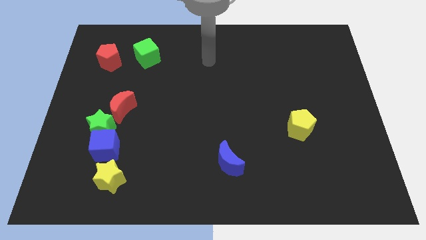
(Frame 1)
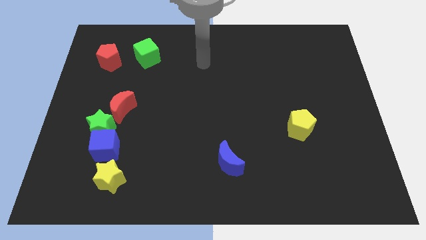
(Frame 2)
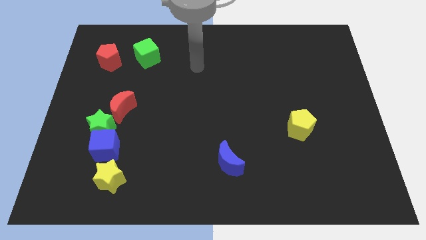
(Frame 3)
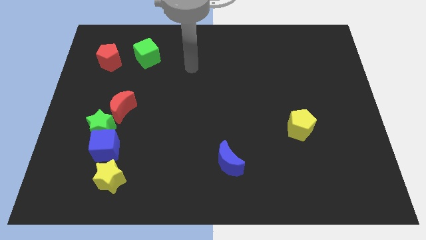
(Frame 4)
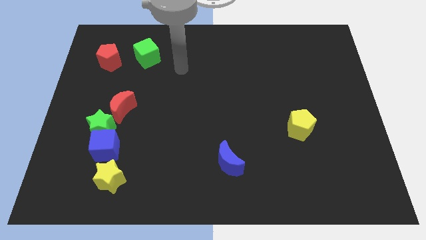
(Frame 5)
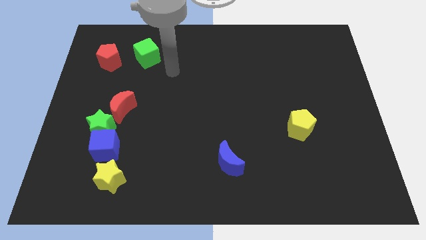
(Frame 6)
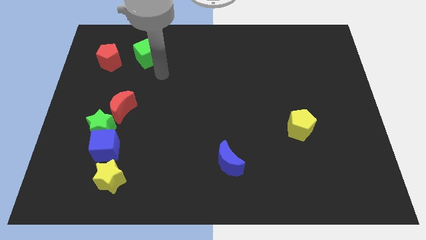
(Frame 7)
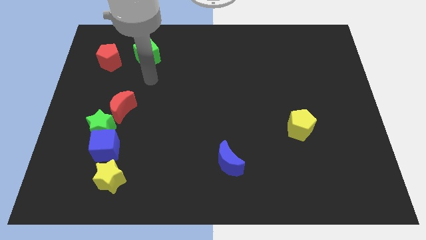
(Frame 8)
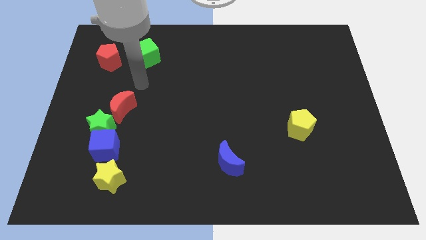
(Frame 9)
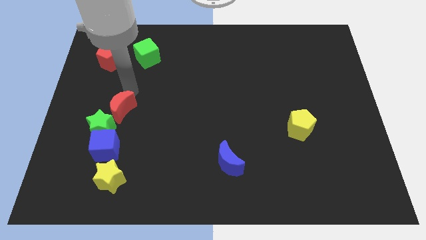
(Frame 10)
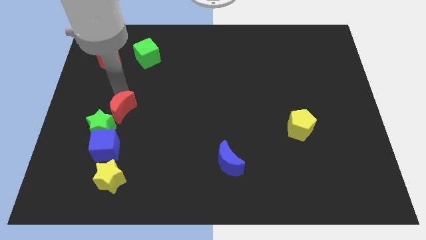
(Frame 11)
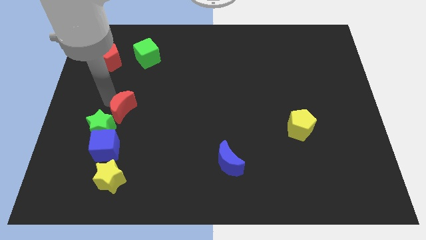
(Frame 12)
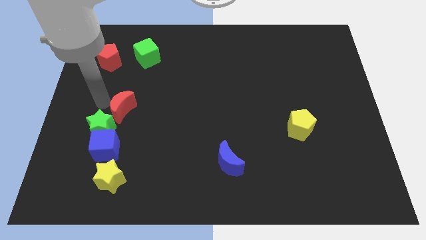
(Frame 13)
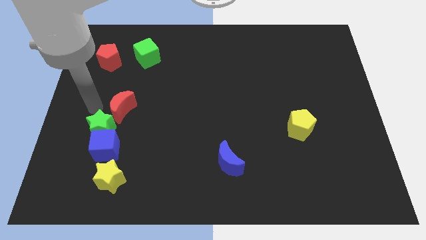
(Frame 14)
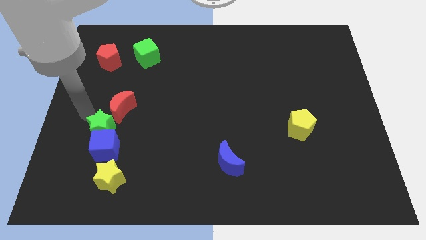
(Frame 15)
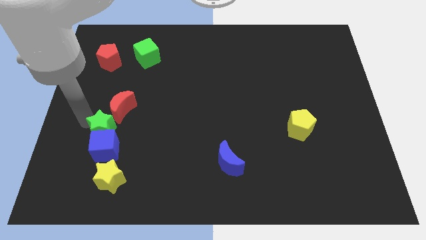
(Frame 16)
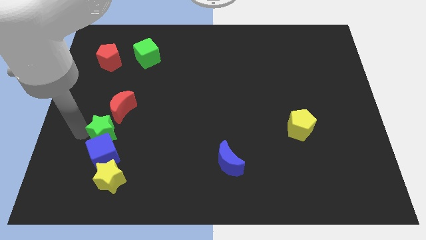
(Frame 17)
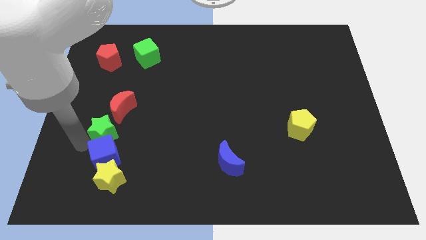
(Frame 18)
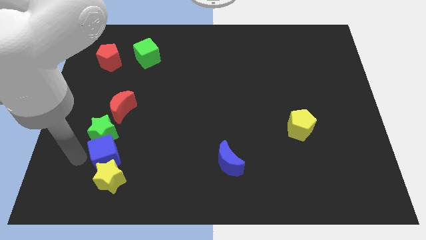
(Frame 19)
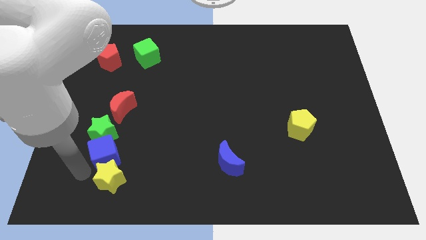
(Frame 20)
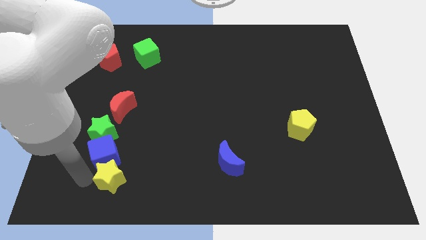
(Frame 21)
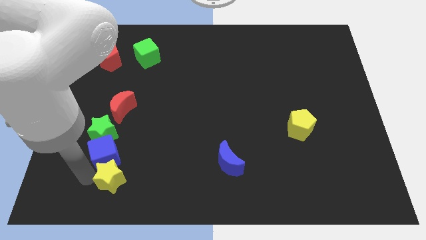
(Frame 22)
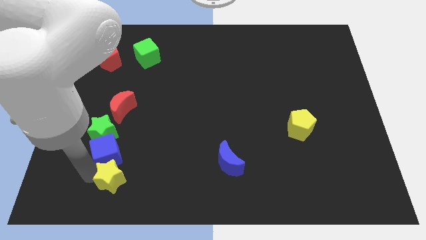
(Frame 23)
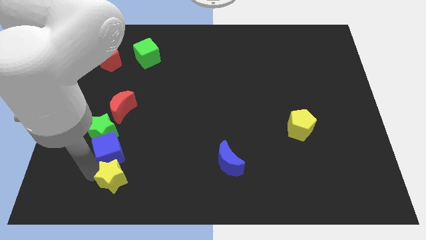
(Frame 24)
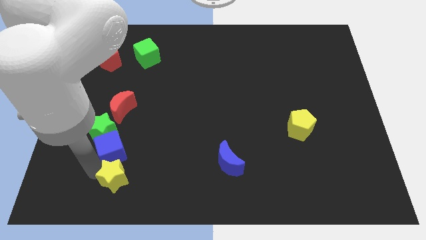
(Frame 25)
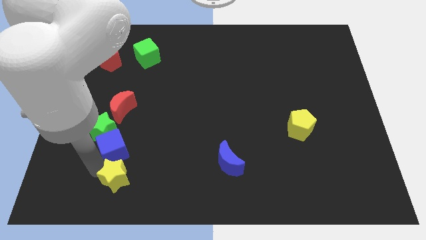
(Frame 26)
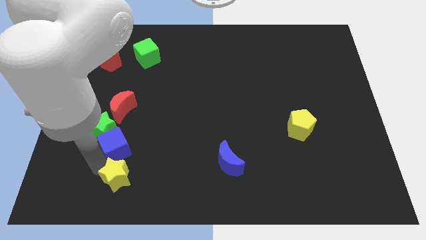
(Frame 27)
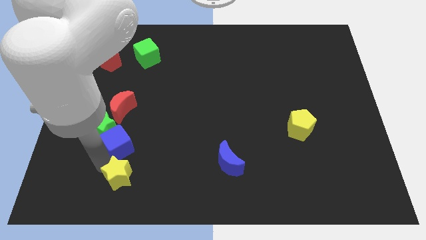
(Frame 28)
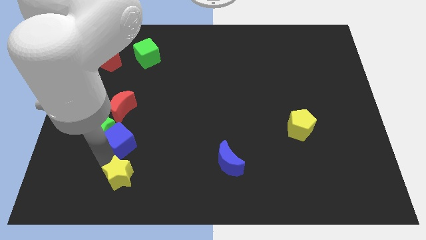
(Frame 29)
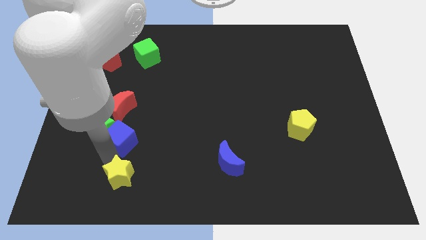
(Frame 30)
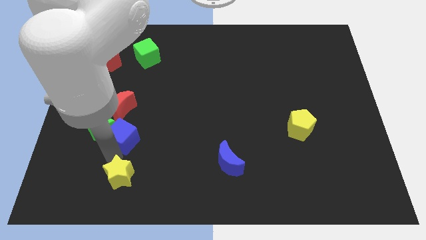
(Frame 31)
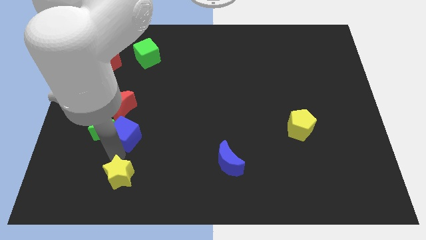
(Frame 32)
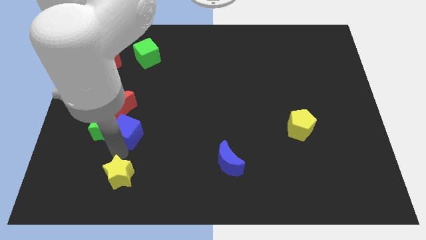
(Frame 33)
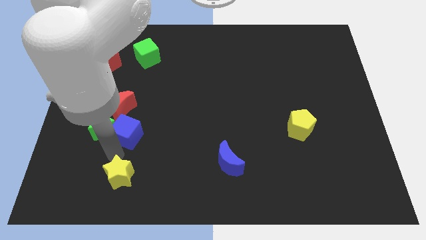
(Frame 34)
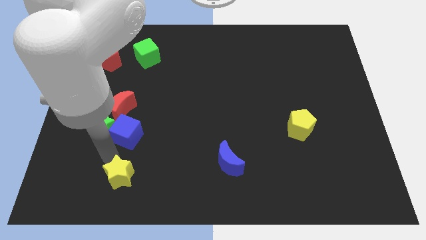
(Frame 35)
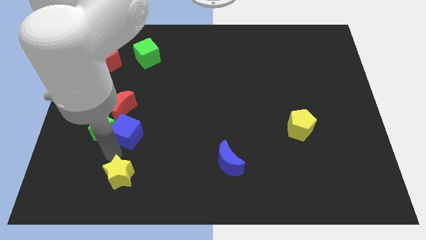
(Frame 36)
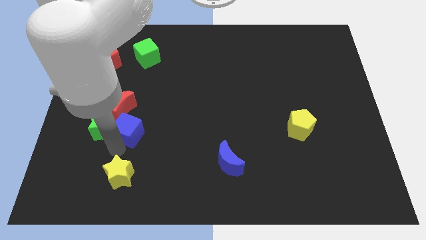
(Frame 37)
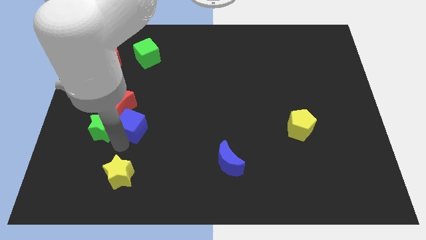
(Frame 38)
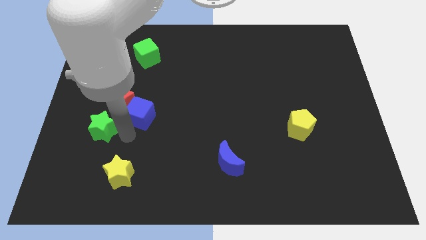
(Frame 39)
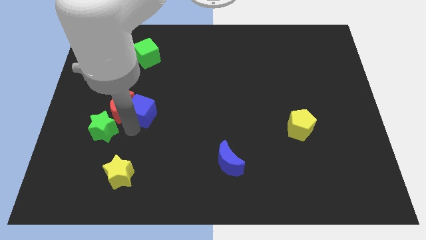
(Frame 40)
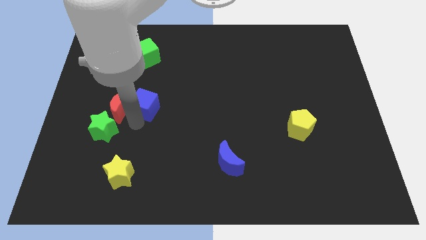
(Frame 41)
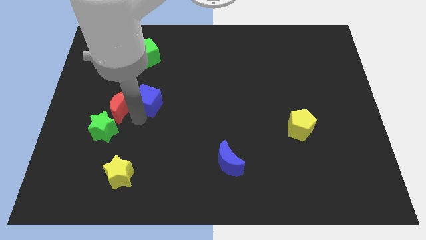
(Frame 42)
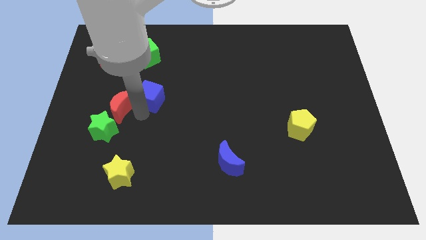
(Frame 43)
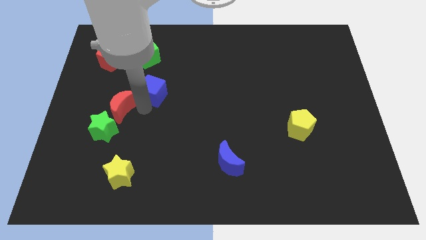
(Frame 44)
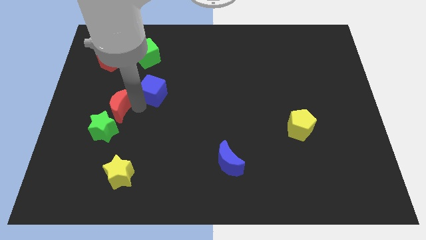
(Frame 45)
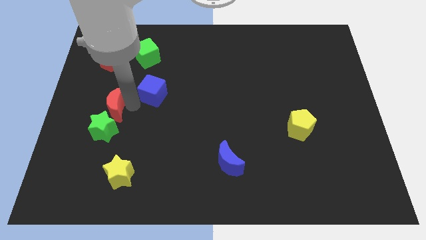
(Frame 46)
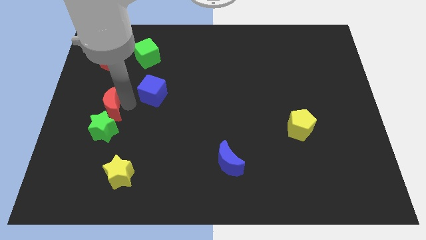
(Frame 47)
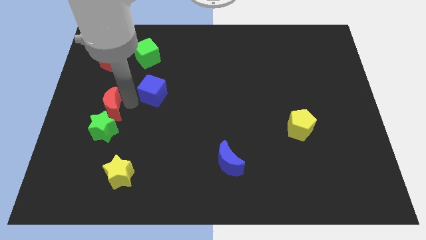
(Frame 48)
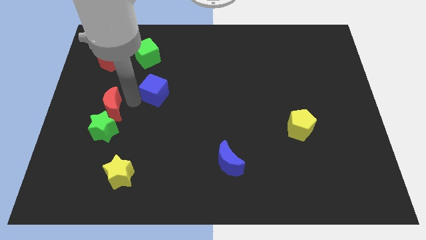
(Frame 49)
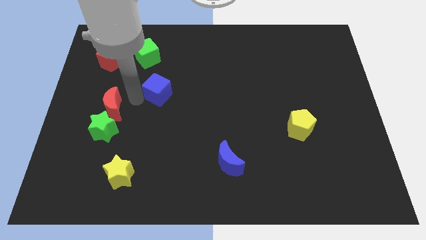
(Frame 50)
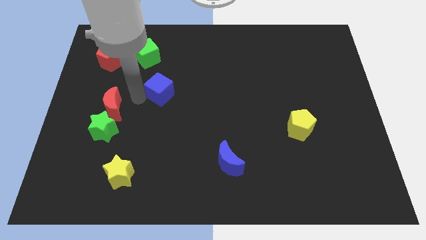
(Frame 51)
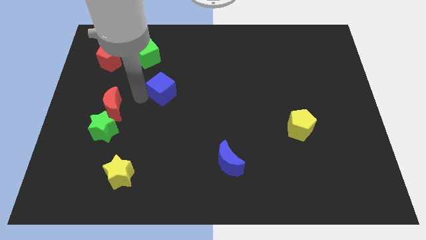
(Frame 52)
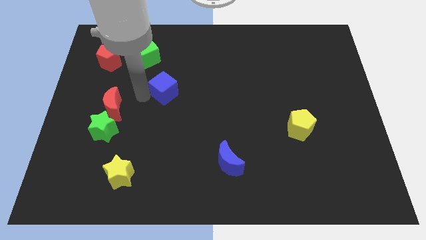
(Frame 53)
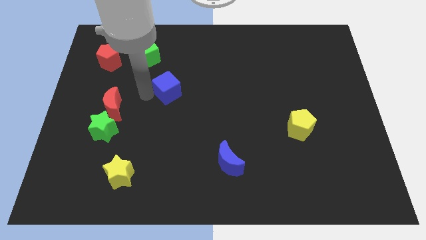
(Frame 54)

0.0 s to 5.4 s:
move the blue cube upwards and right

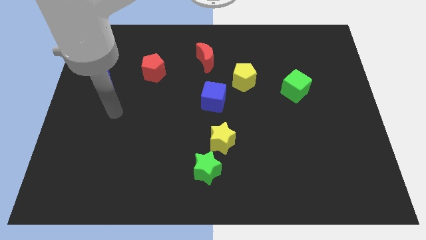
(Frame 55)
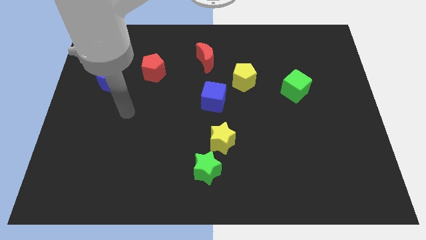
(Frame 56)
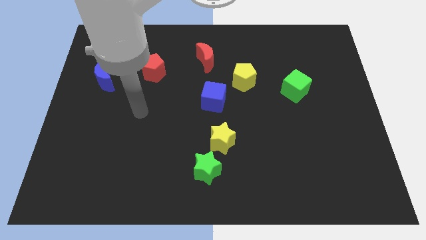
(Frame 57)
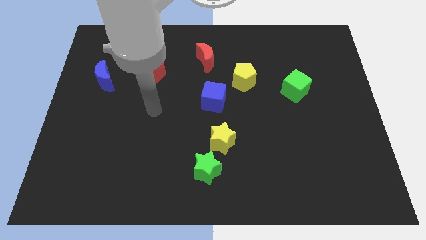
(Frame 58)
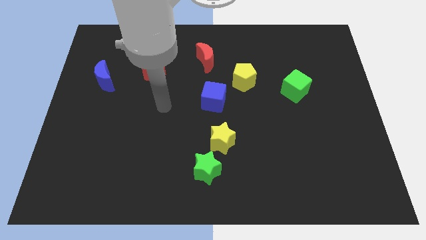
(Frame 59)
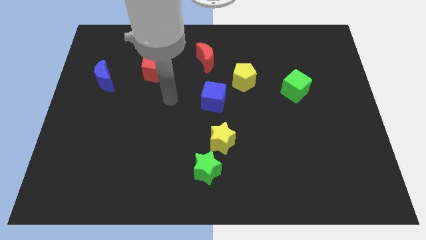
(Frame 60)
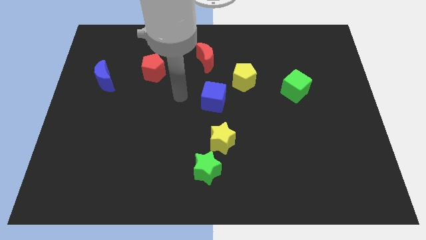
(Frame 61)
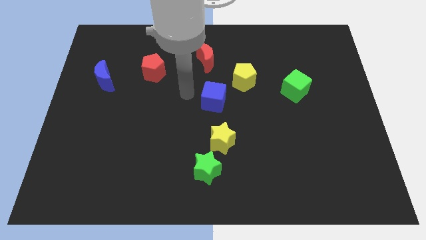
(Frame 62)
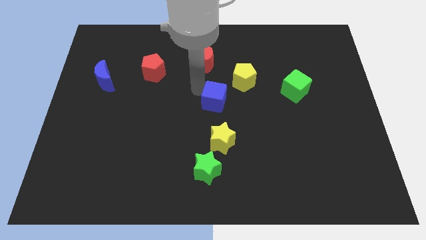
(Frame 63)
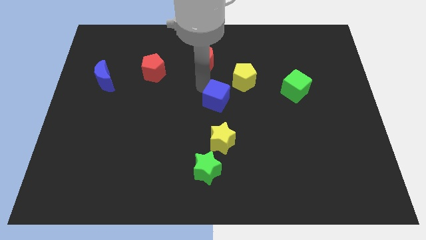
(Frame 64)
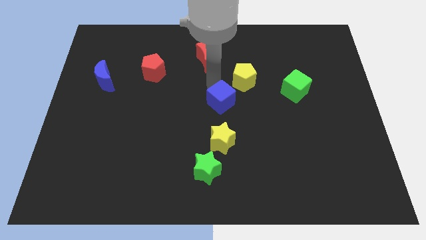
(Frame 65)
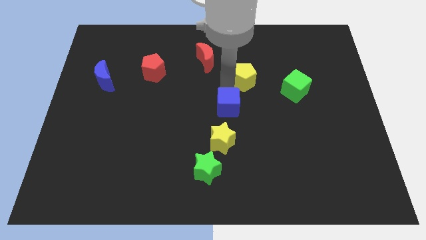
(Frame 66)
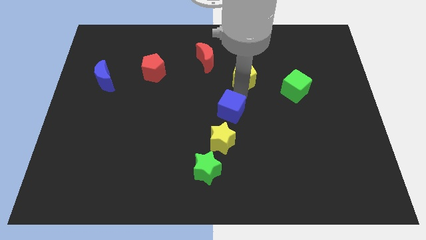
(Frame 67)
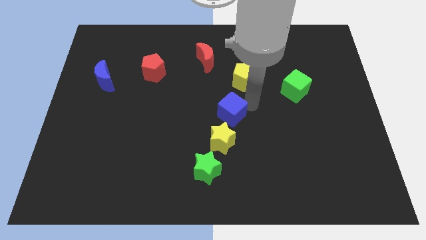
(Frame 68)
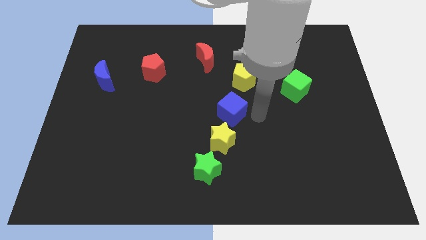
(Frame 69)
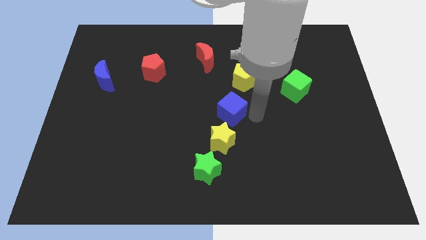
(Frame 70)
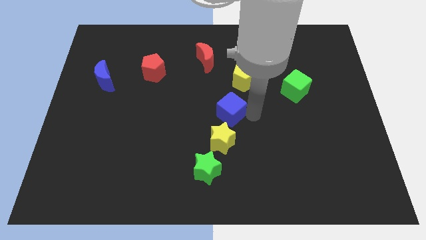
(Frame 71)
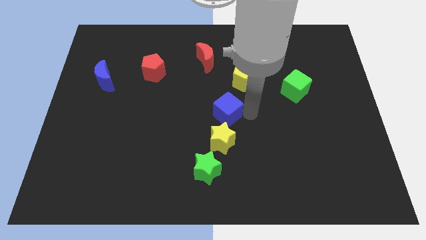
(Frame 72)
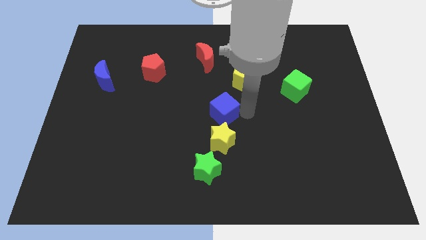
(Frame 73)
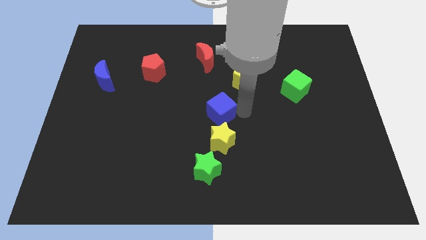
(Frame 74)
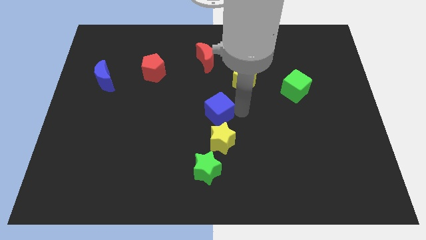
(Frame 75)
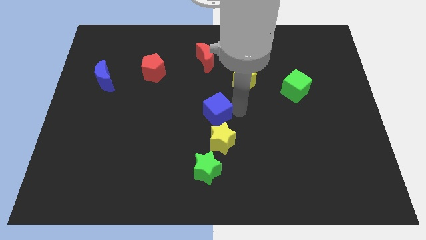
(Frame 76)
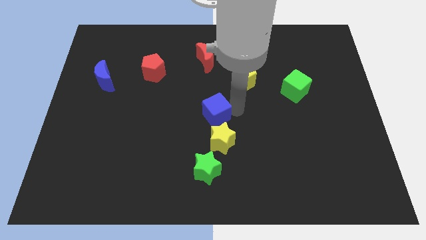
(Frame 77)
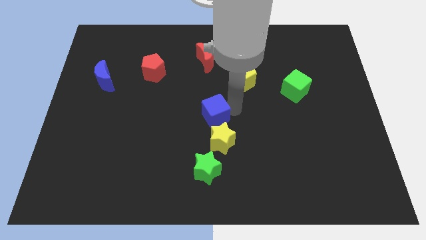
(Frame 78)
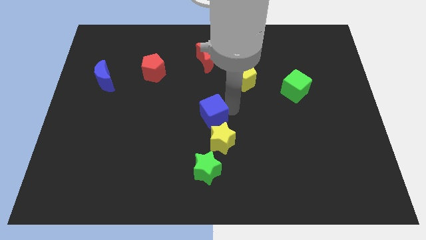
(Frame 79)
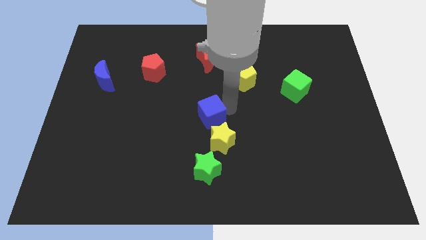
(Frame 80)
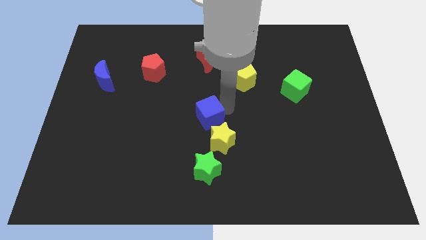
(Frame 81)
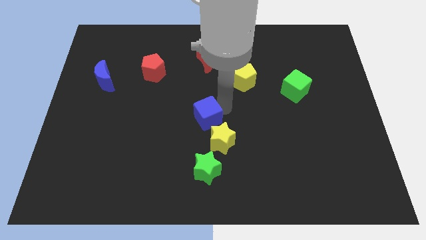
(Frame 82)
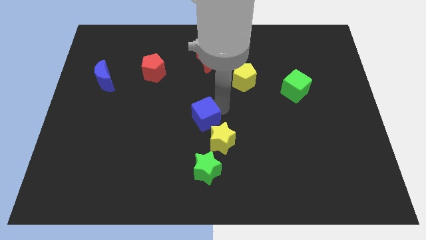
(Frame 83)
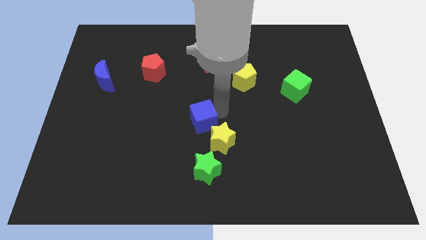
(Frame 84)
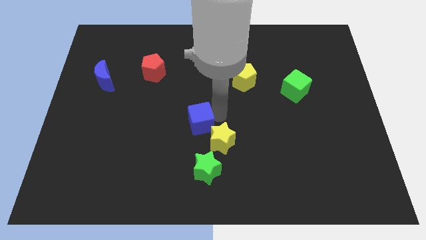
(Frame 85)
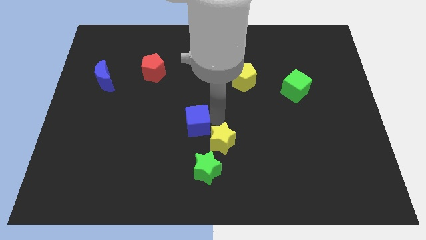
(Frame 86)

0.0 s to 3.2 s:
move the blue cube down and left diagonally somewhat
